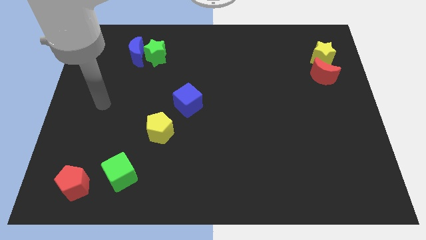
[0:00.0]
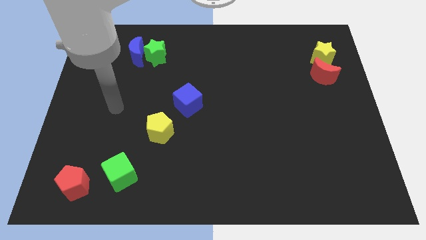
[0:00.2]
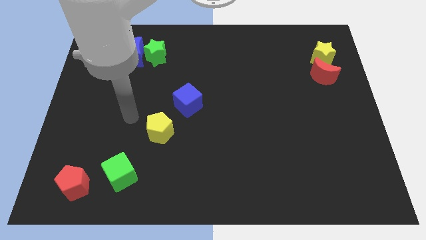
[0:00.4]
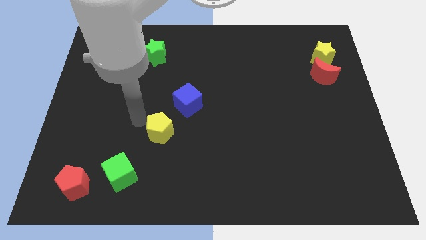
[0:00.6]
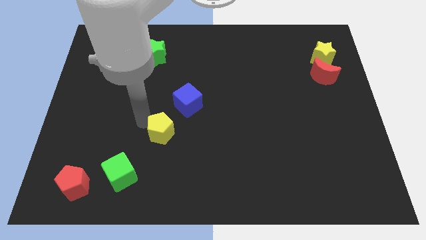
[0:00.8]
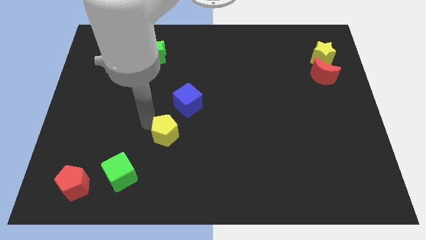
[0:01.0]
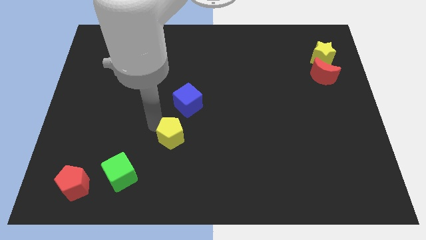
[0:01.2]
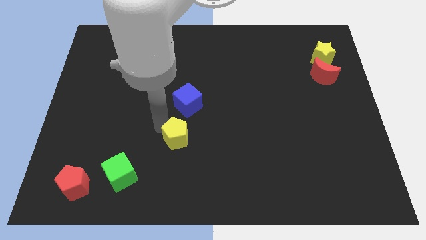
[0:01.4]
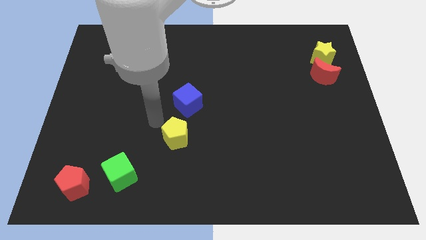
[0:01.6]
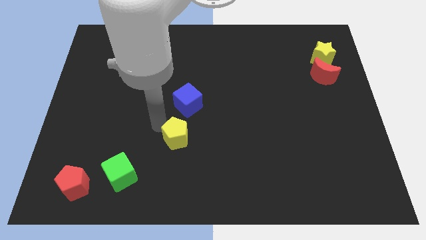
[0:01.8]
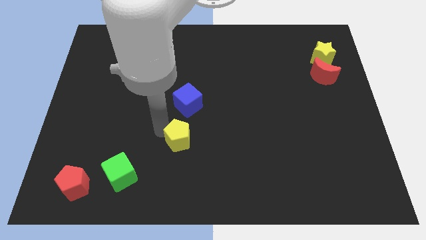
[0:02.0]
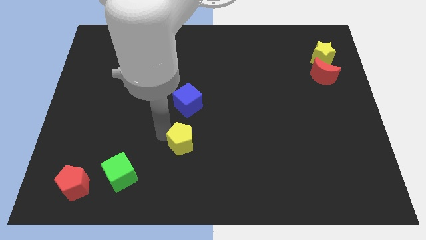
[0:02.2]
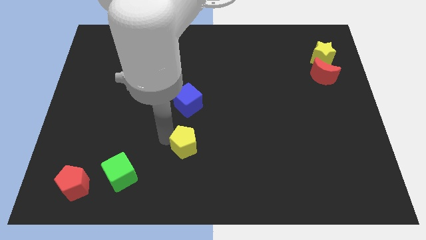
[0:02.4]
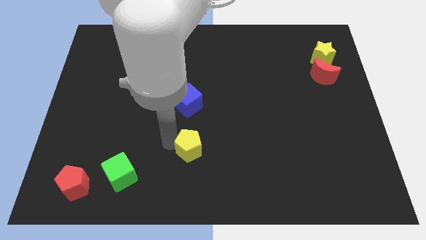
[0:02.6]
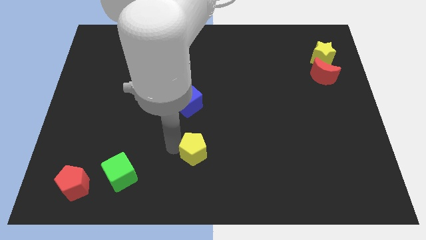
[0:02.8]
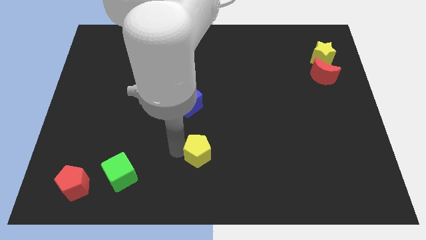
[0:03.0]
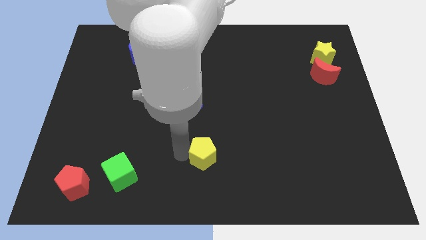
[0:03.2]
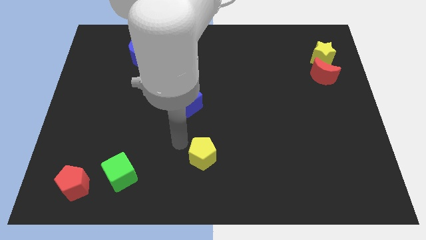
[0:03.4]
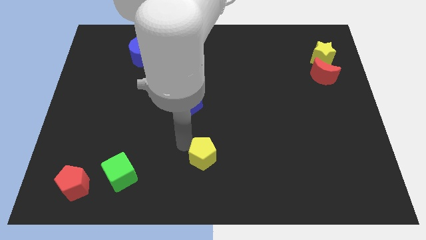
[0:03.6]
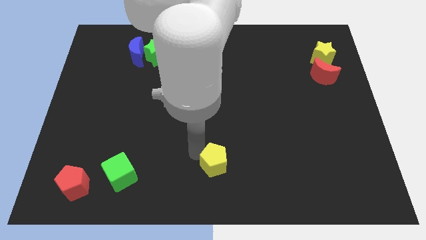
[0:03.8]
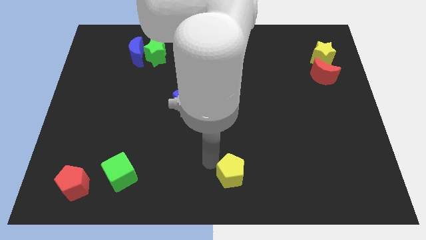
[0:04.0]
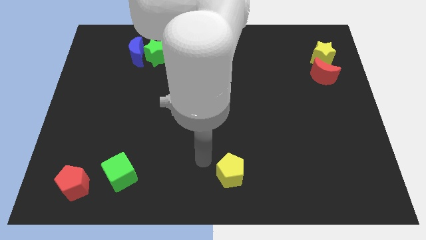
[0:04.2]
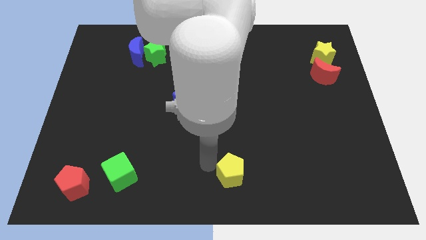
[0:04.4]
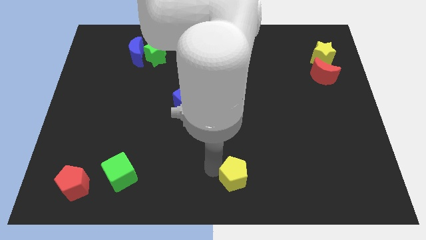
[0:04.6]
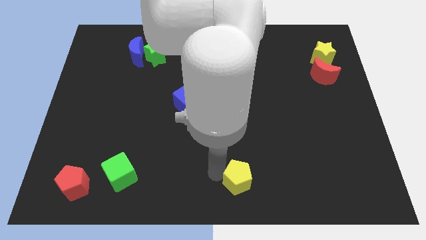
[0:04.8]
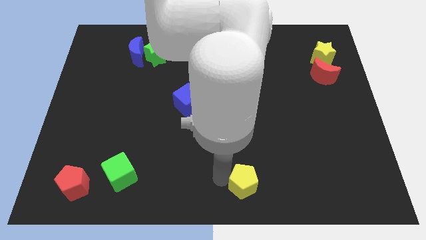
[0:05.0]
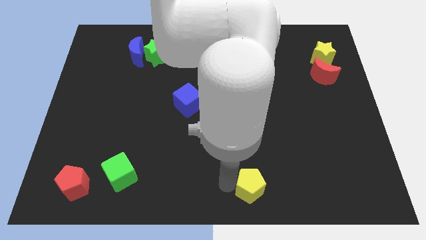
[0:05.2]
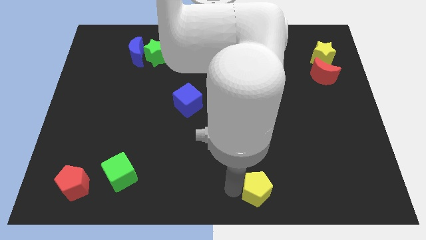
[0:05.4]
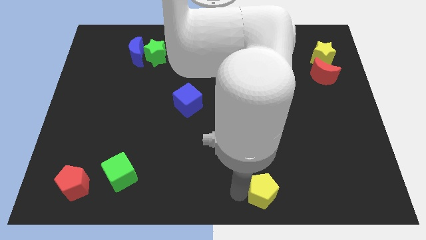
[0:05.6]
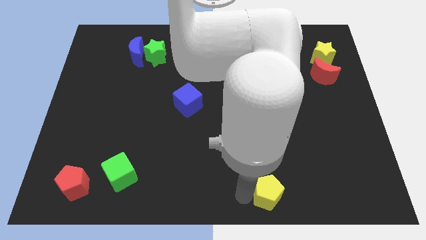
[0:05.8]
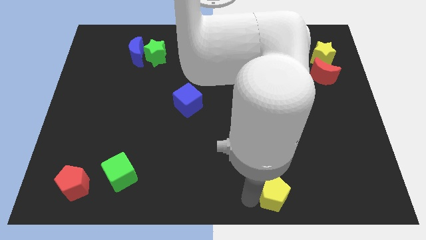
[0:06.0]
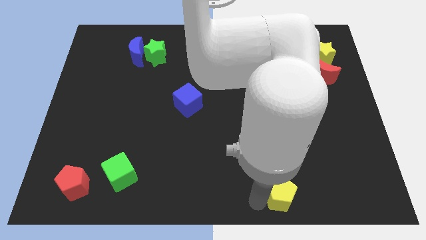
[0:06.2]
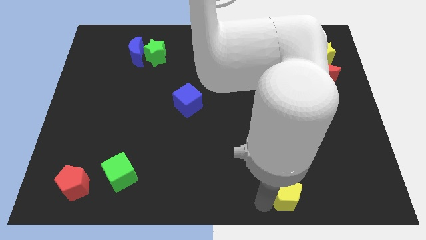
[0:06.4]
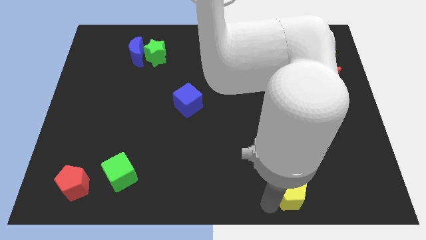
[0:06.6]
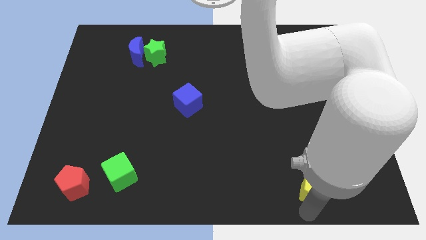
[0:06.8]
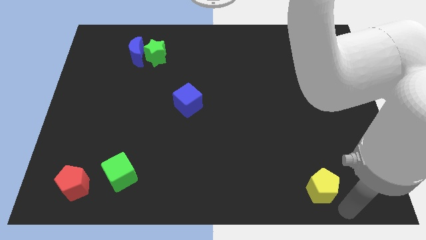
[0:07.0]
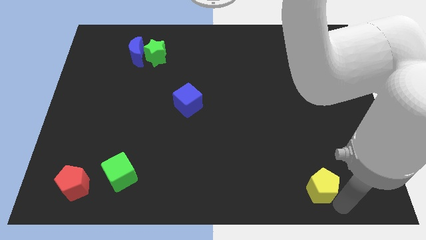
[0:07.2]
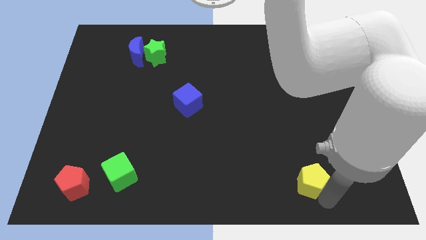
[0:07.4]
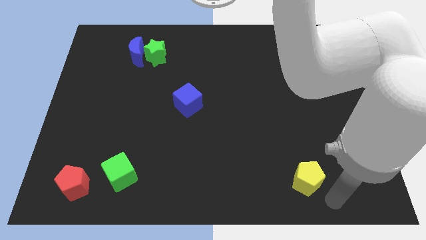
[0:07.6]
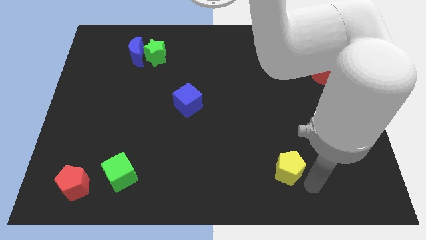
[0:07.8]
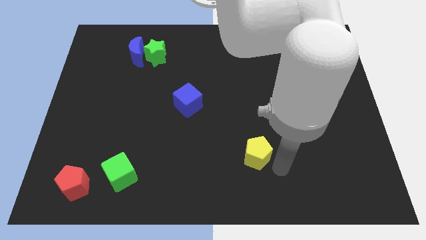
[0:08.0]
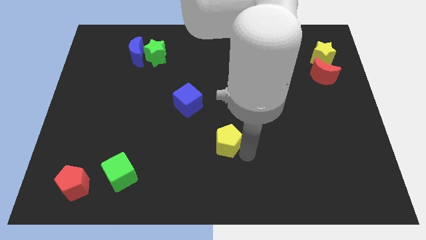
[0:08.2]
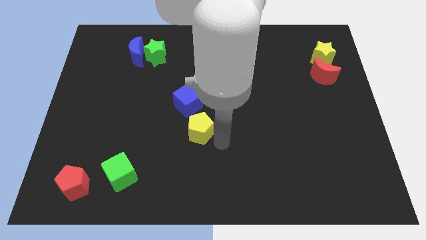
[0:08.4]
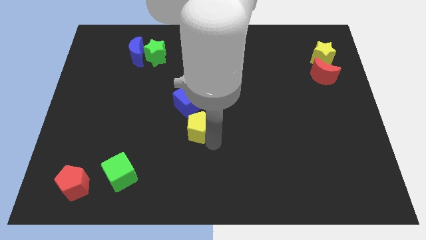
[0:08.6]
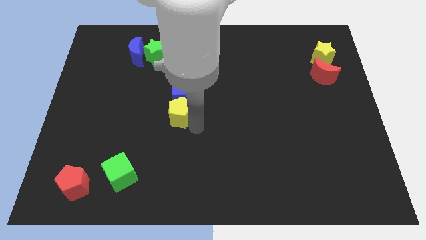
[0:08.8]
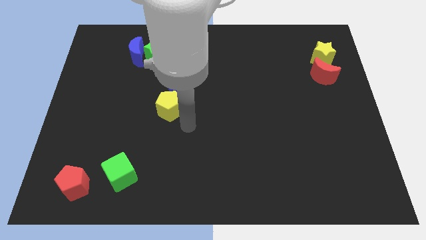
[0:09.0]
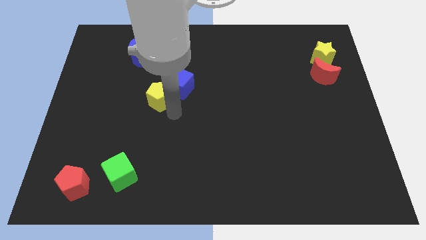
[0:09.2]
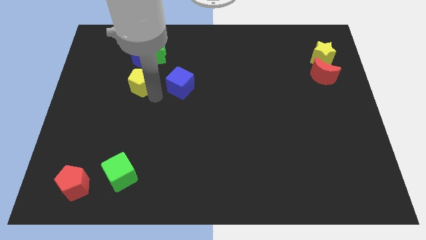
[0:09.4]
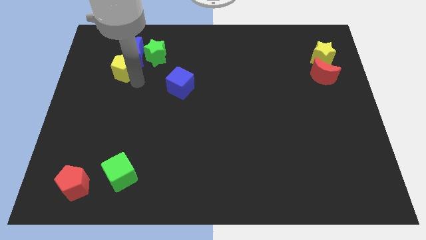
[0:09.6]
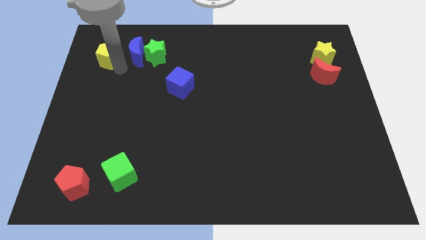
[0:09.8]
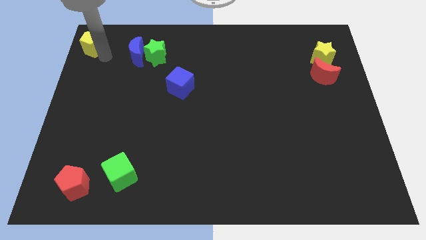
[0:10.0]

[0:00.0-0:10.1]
move the yellow pentagon to the top left corner

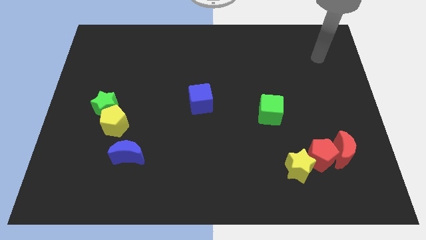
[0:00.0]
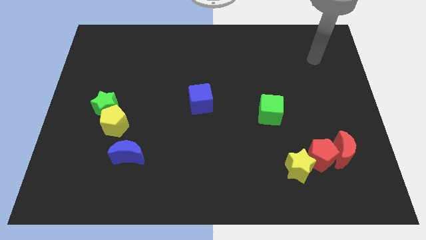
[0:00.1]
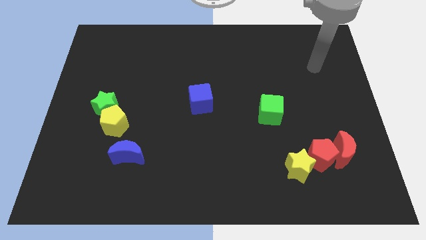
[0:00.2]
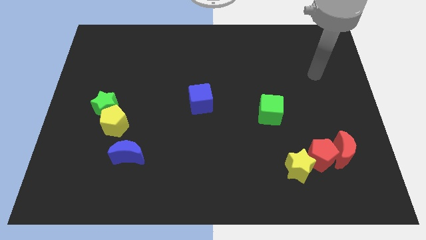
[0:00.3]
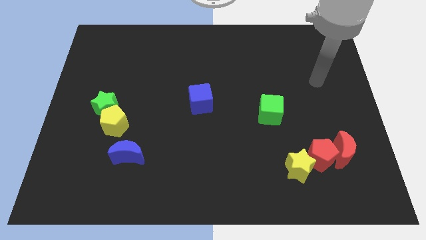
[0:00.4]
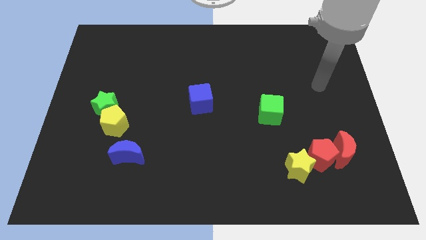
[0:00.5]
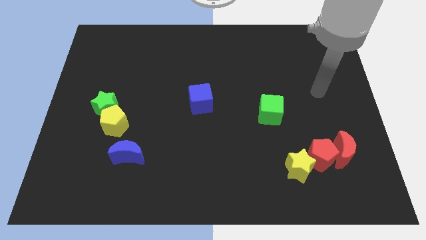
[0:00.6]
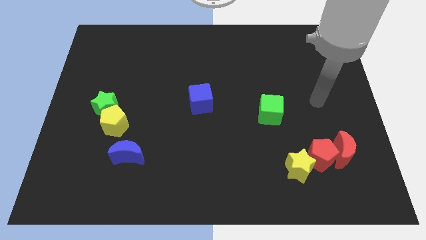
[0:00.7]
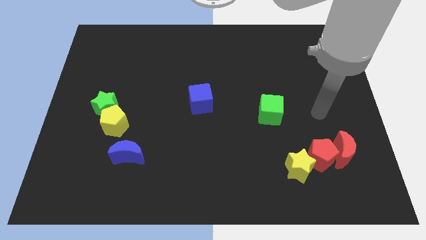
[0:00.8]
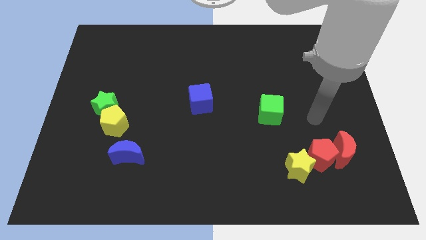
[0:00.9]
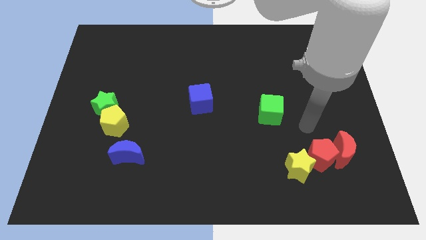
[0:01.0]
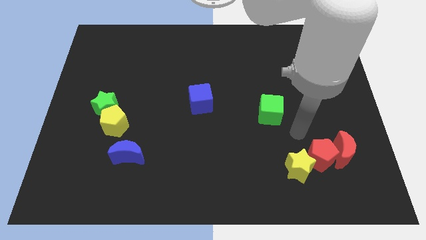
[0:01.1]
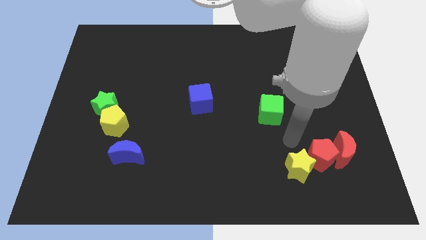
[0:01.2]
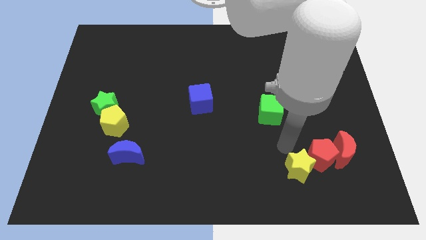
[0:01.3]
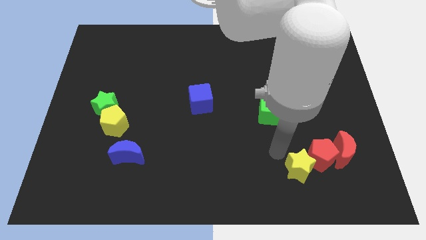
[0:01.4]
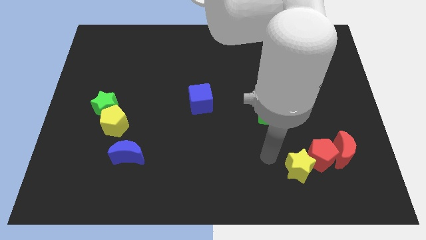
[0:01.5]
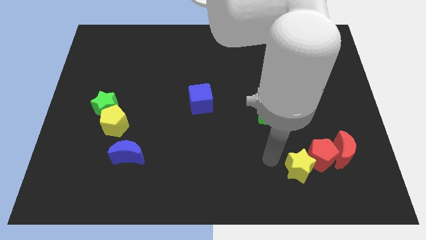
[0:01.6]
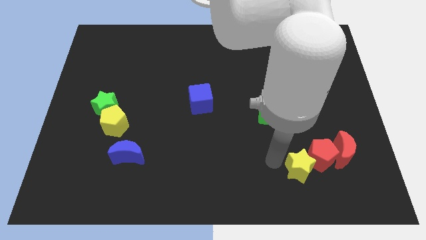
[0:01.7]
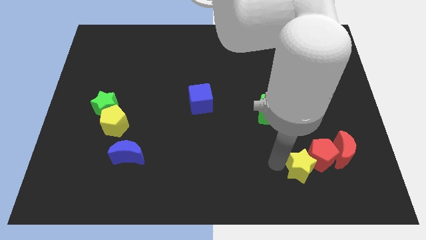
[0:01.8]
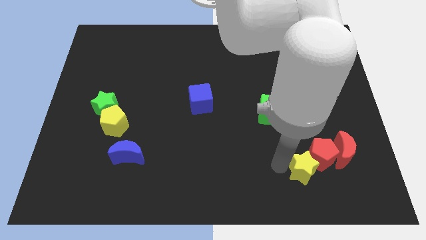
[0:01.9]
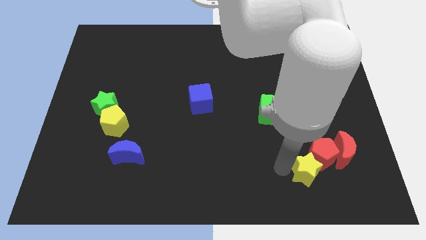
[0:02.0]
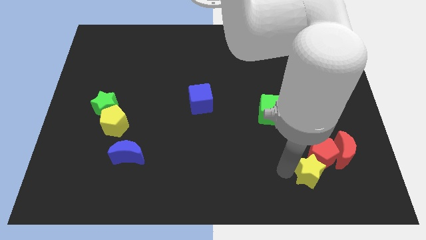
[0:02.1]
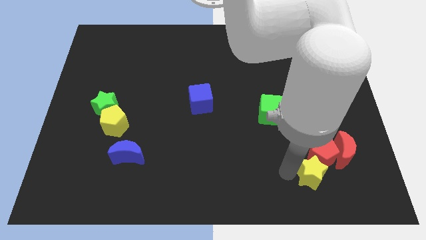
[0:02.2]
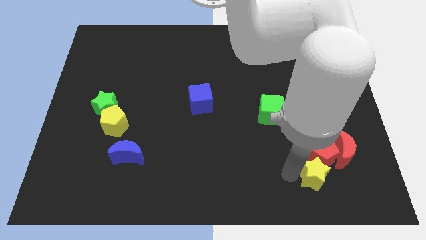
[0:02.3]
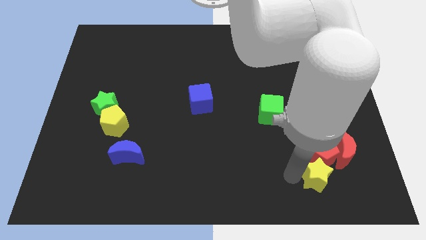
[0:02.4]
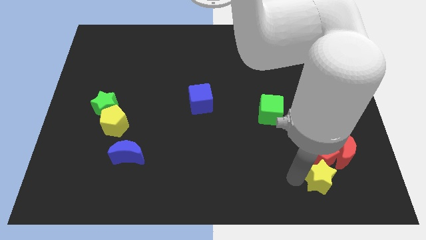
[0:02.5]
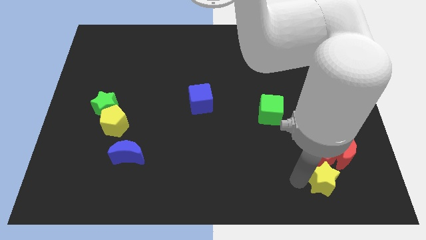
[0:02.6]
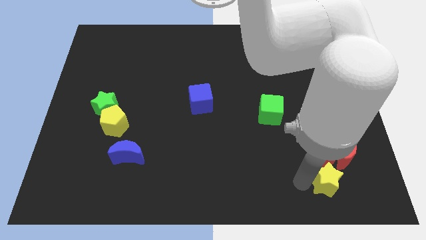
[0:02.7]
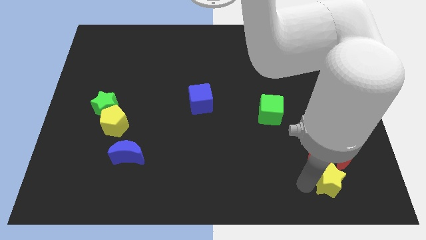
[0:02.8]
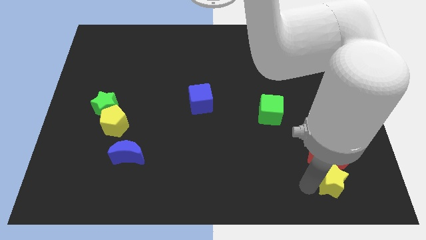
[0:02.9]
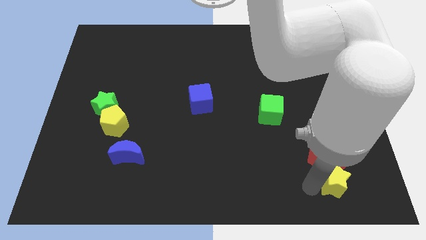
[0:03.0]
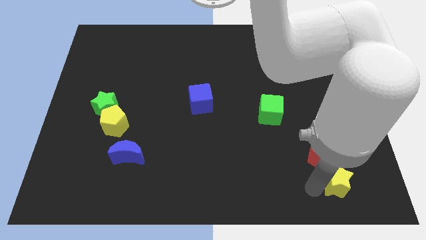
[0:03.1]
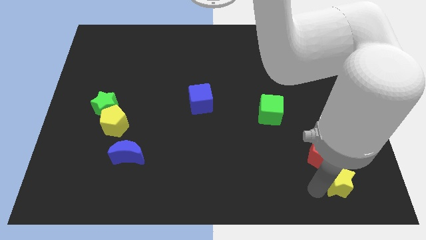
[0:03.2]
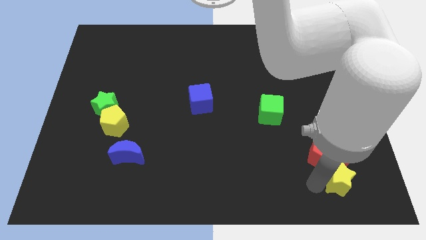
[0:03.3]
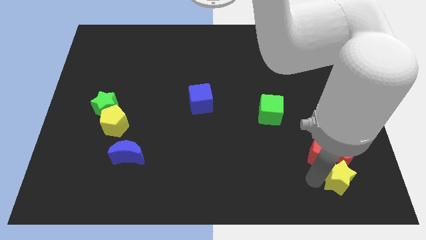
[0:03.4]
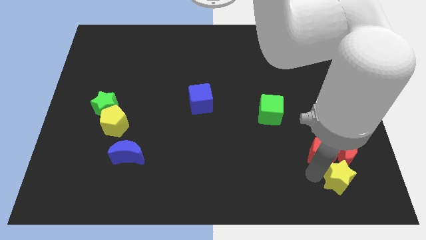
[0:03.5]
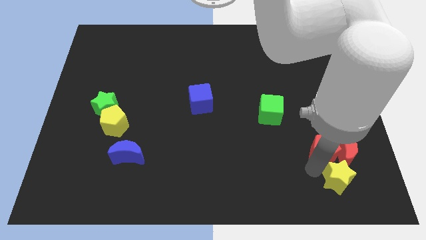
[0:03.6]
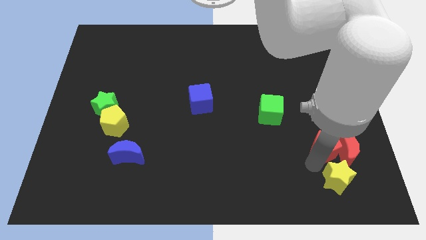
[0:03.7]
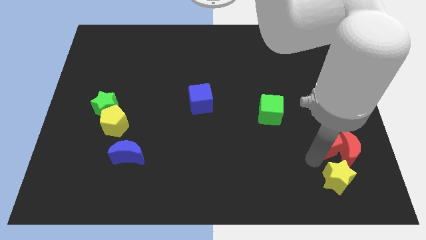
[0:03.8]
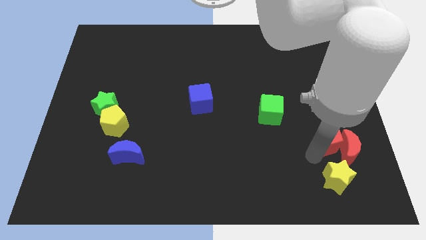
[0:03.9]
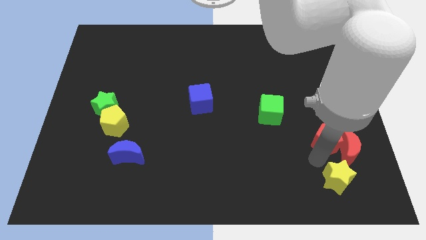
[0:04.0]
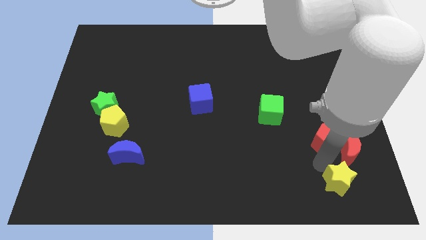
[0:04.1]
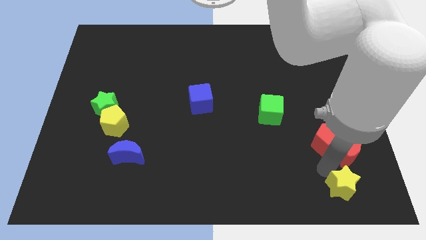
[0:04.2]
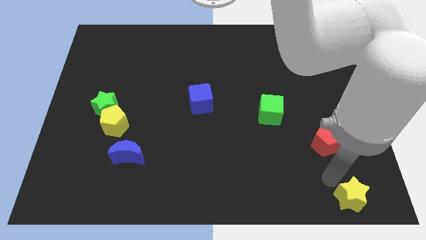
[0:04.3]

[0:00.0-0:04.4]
push the yellow star to the lower right corner
